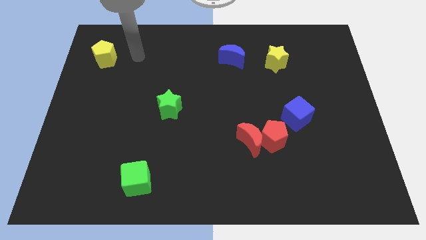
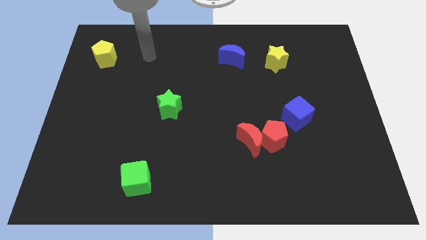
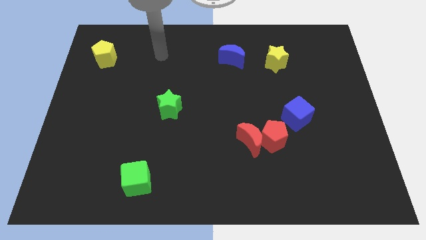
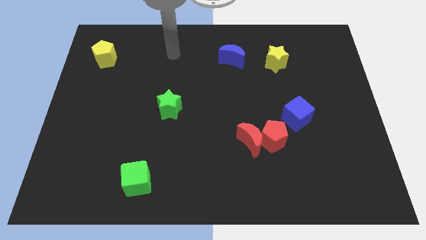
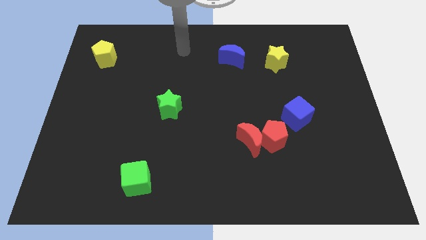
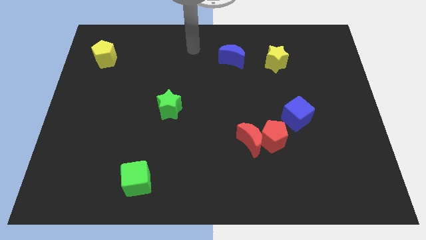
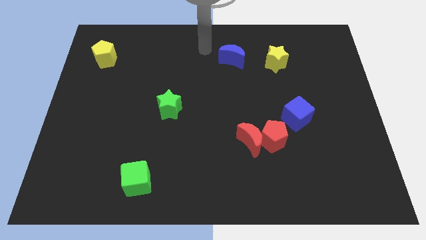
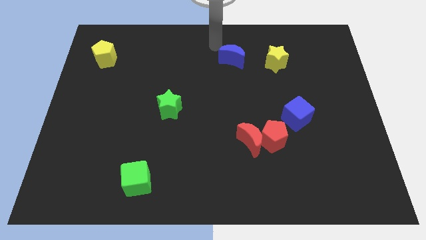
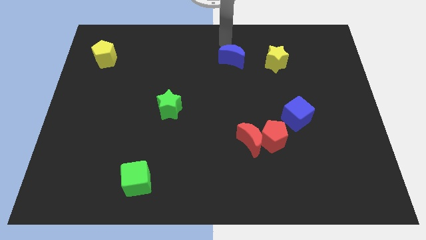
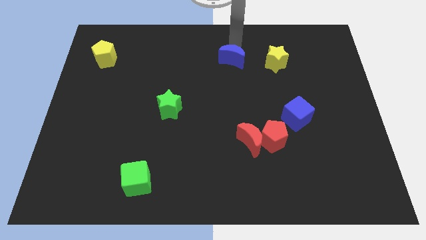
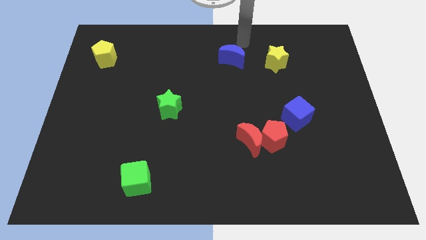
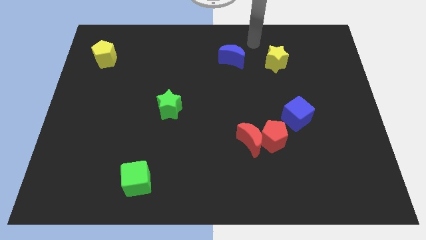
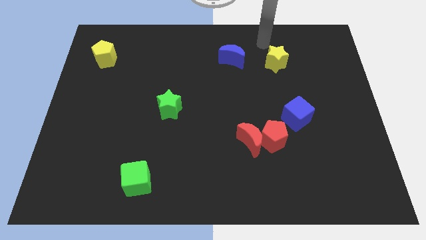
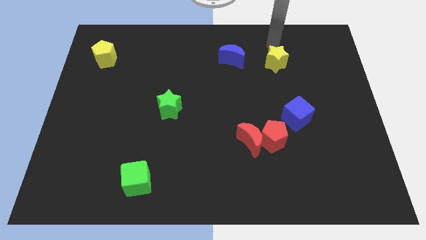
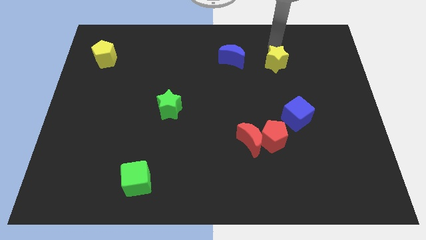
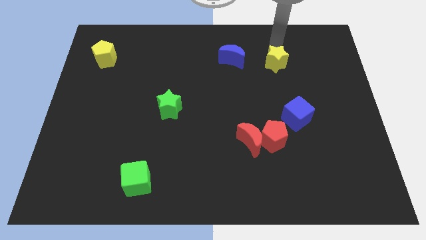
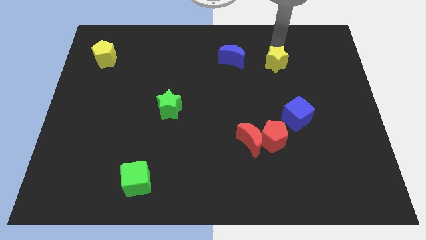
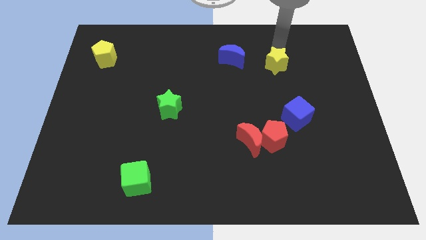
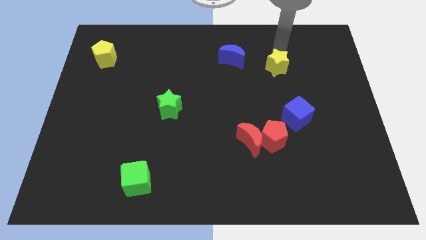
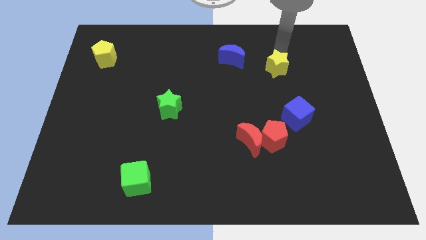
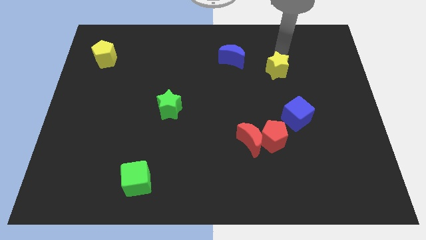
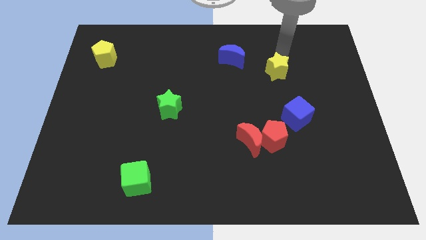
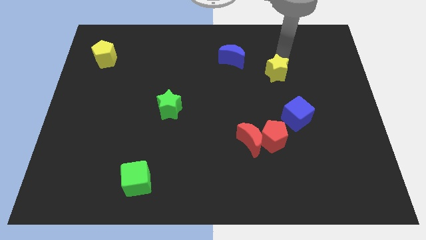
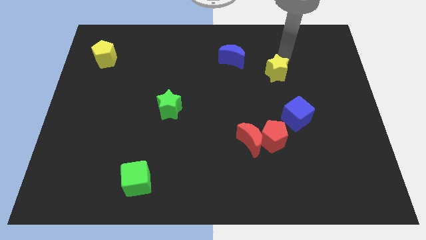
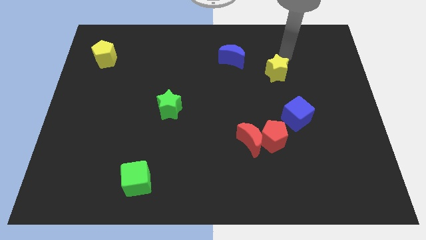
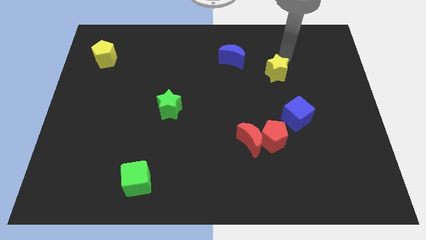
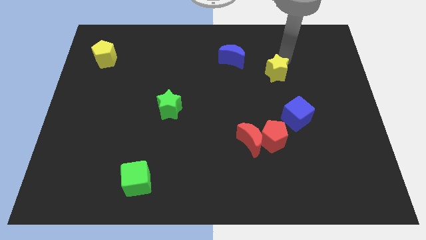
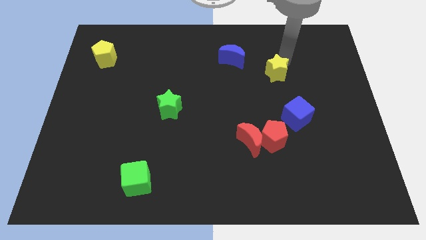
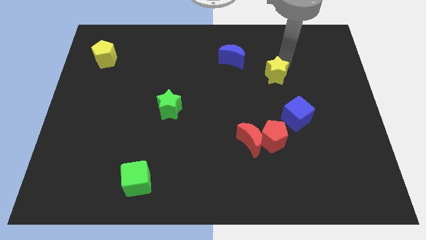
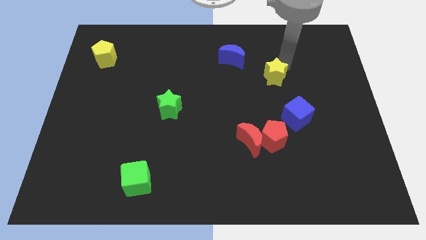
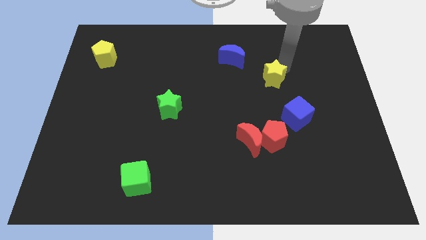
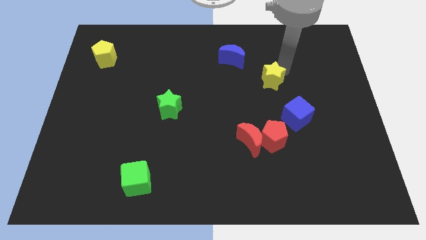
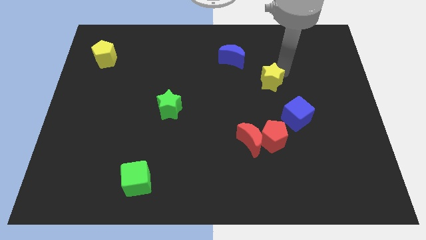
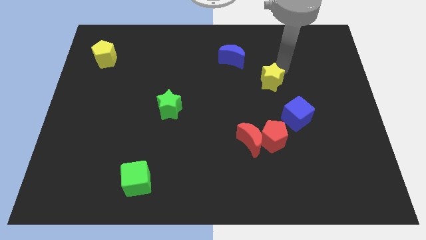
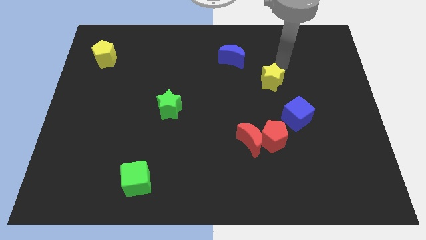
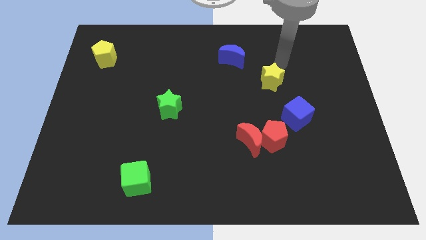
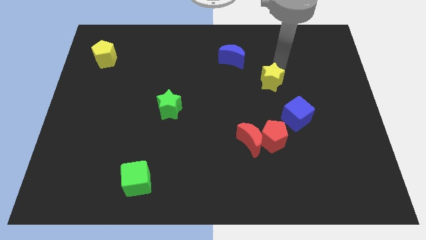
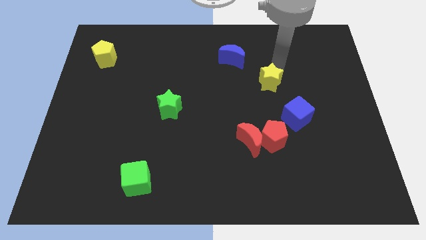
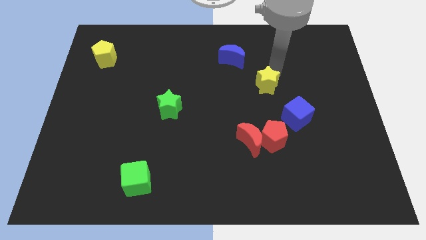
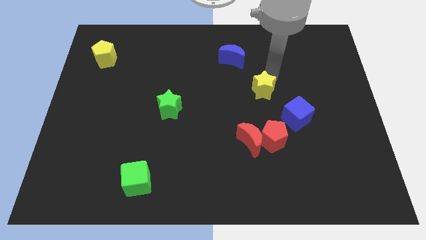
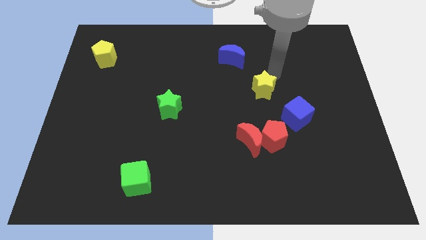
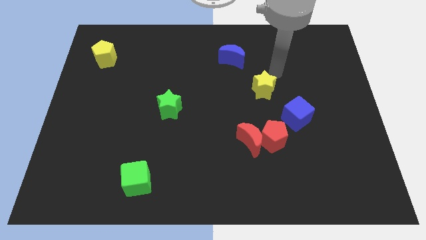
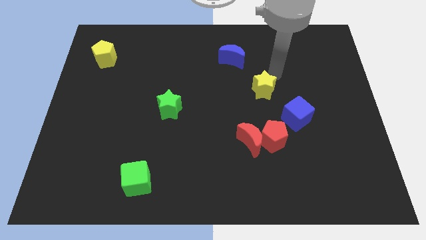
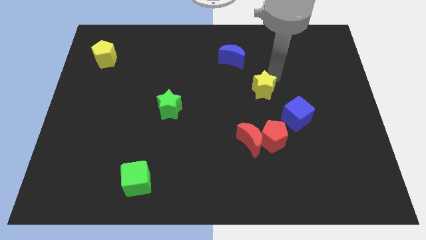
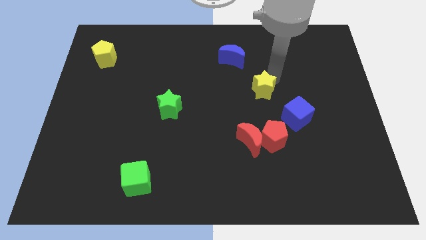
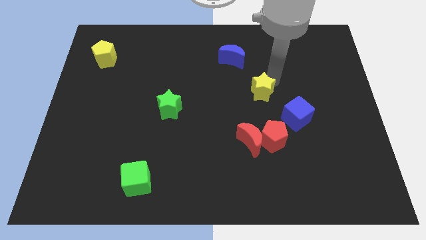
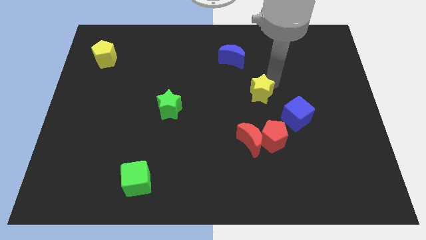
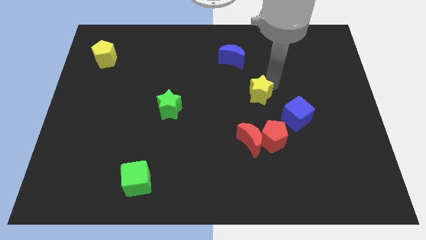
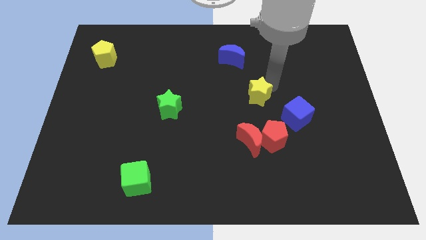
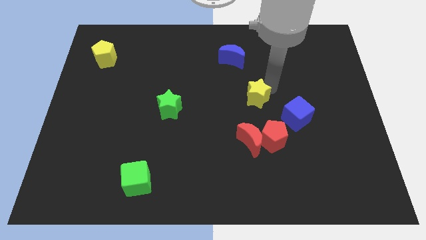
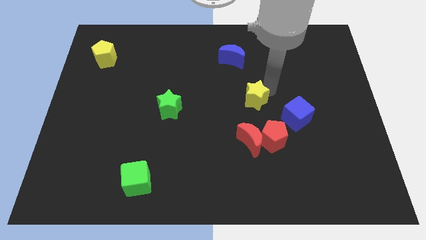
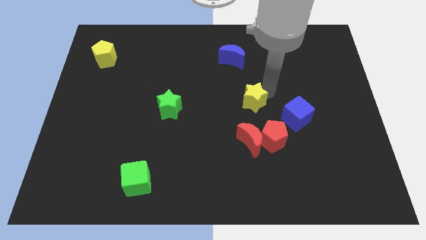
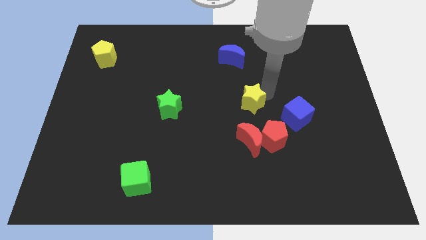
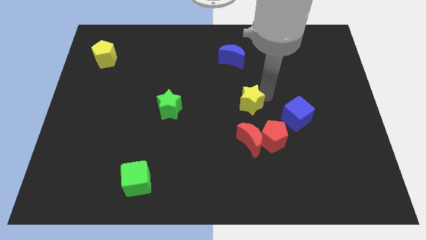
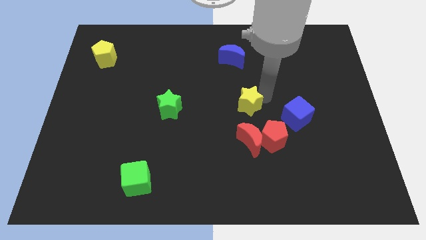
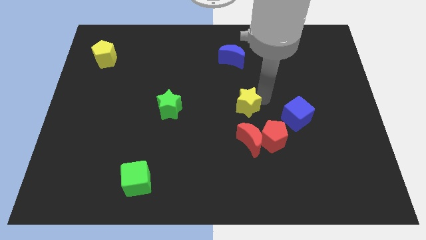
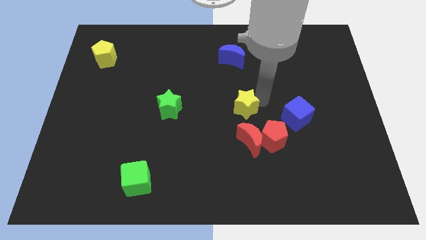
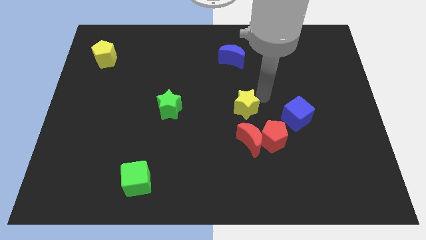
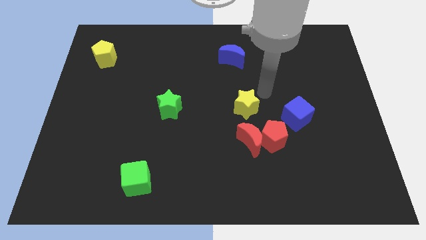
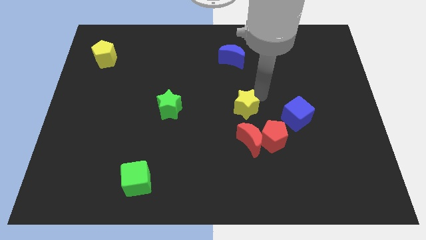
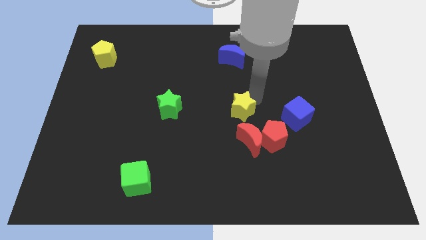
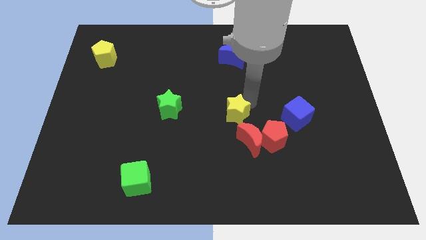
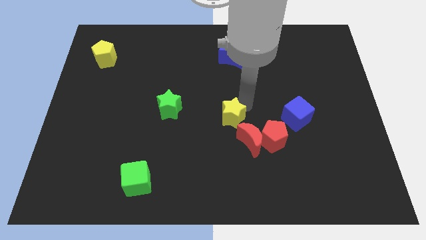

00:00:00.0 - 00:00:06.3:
push the yellow star diagonally downwards and left

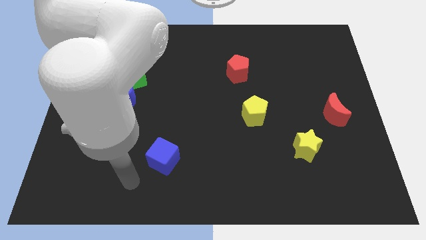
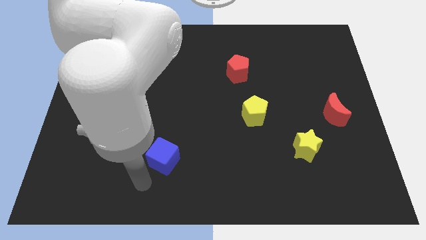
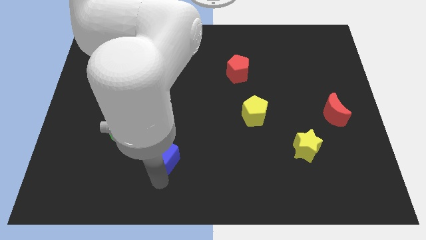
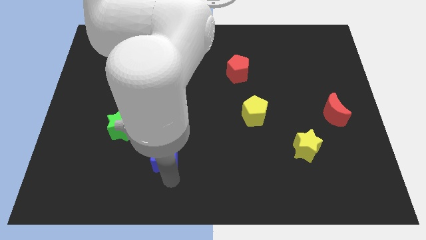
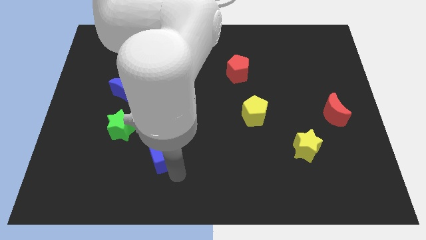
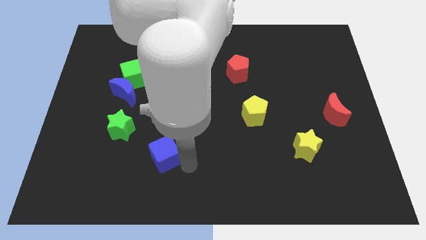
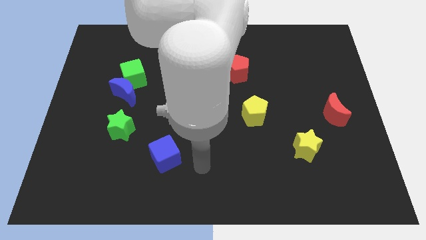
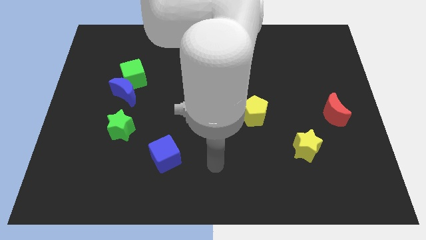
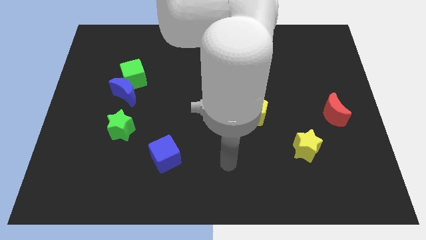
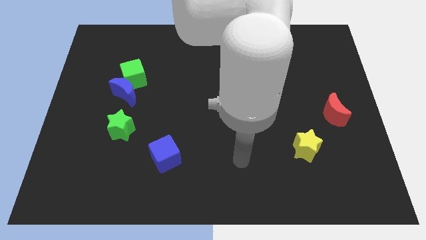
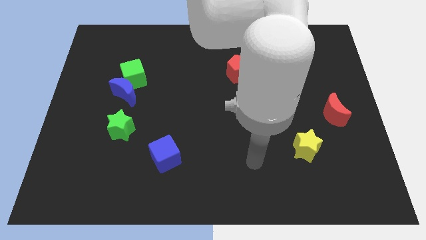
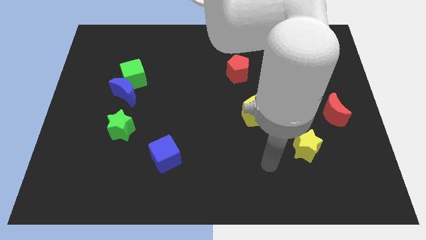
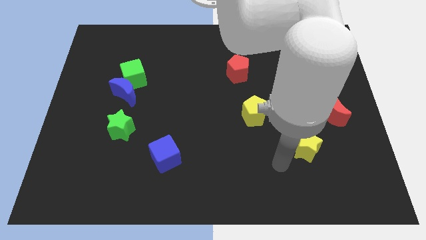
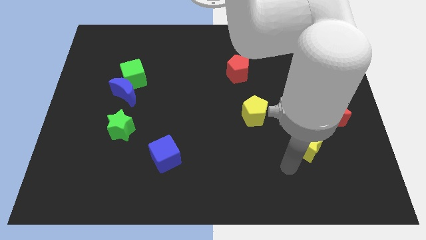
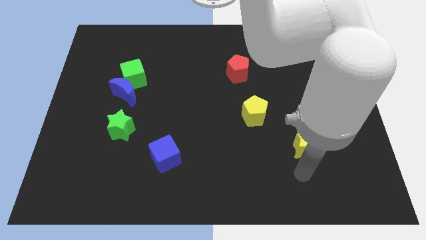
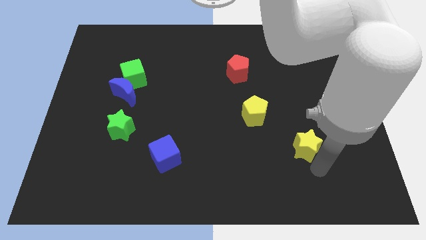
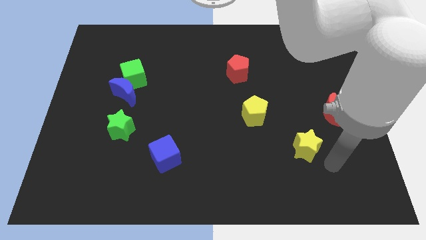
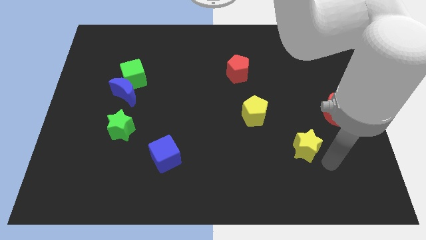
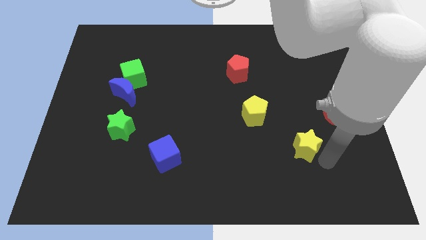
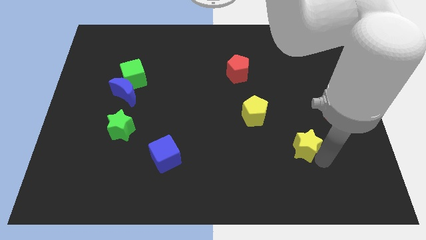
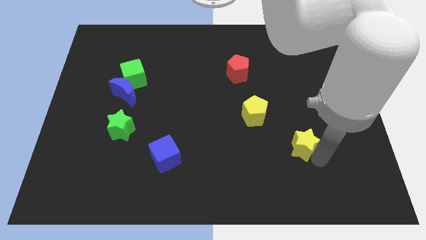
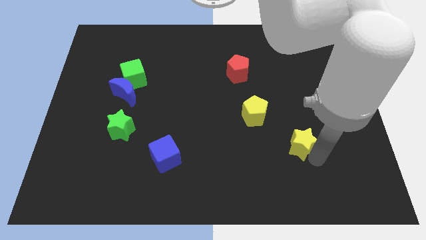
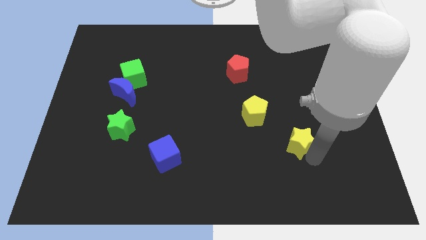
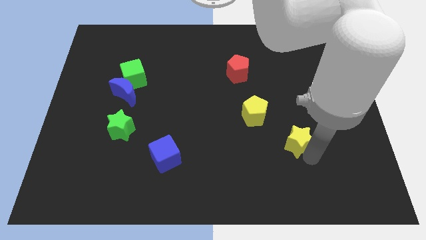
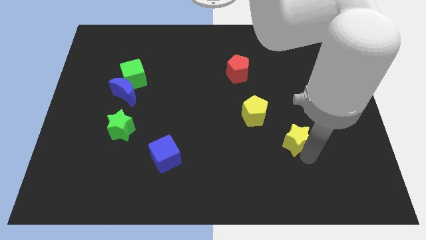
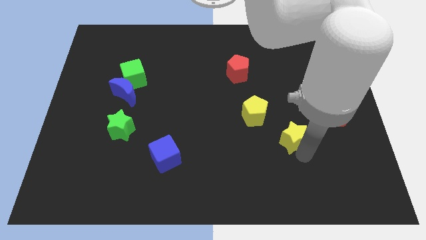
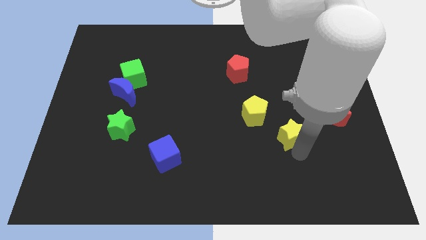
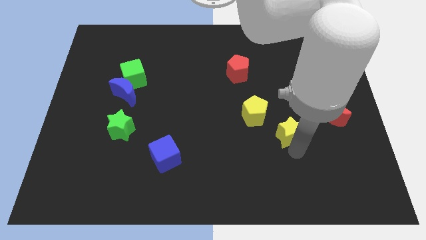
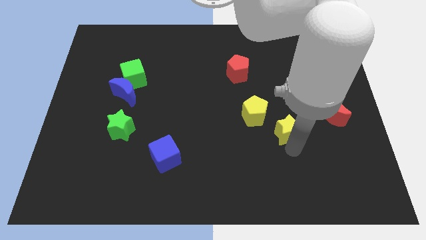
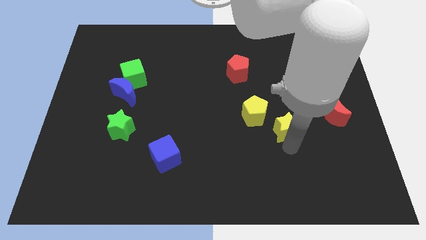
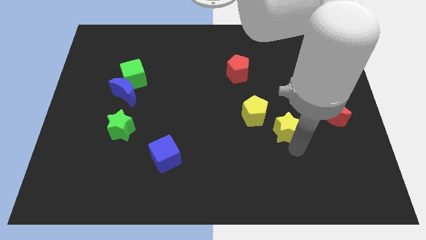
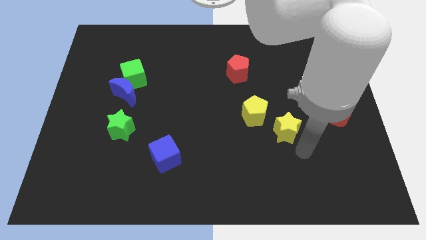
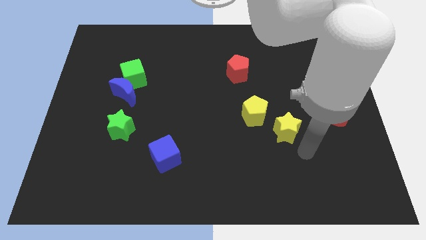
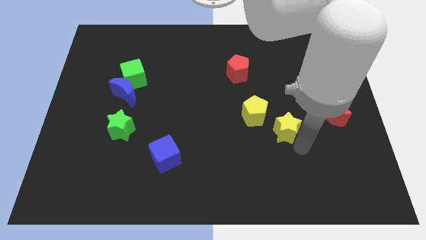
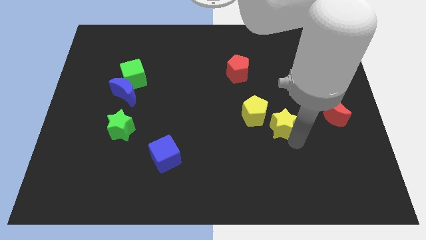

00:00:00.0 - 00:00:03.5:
push the yellow star slightly upwards and to the left diagonally
